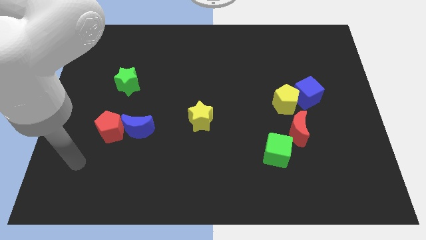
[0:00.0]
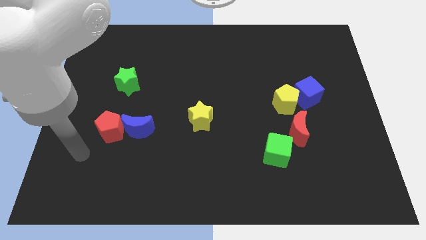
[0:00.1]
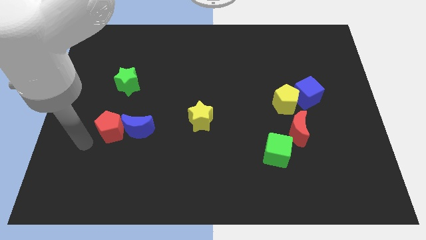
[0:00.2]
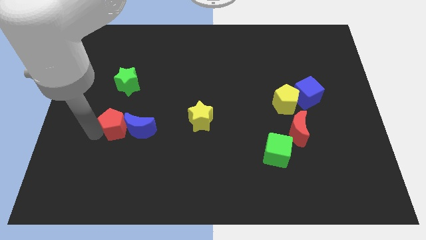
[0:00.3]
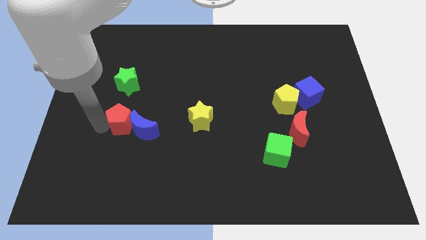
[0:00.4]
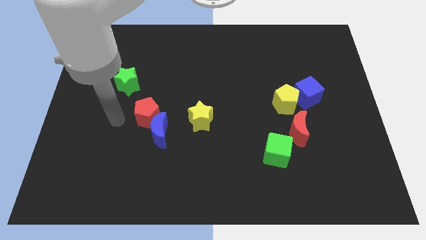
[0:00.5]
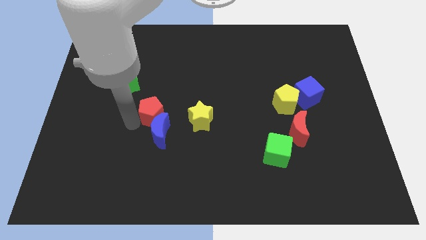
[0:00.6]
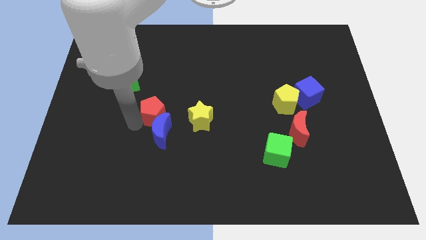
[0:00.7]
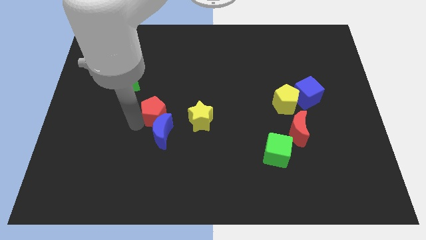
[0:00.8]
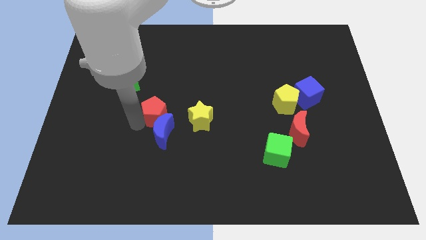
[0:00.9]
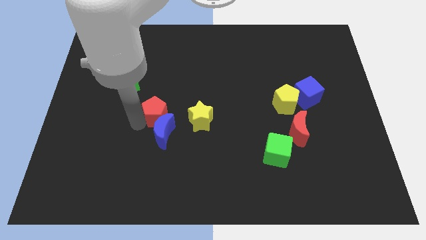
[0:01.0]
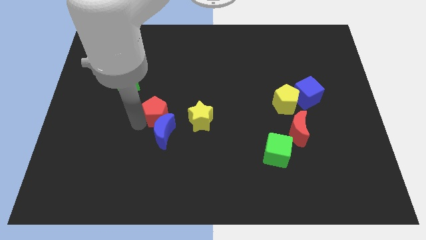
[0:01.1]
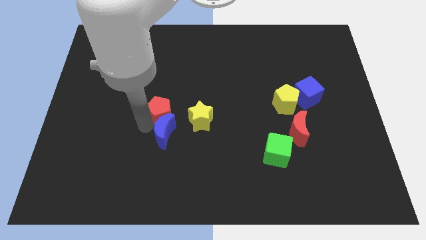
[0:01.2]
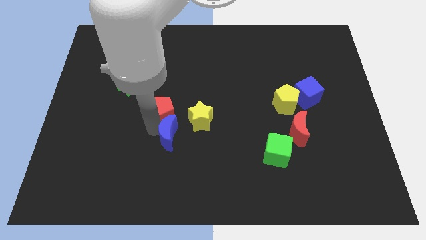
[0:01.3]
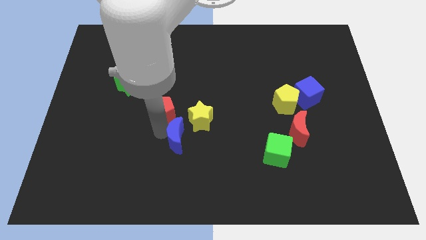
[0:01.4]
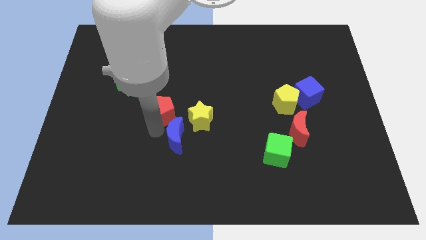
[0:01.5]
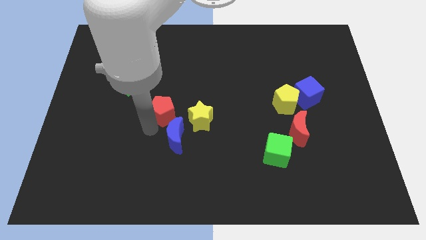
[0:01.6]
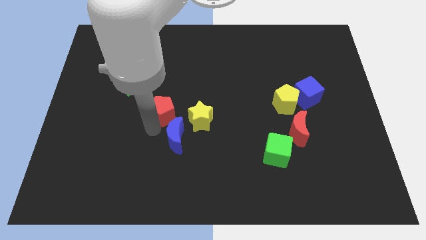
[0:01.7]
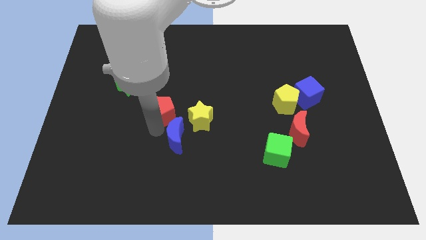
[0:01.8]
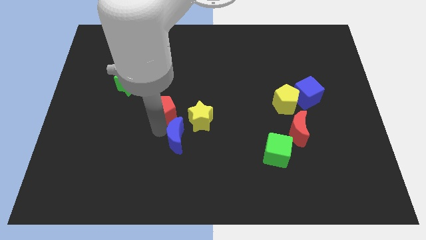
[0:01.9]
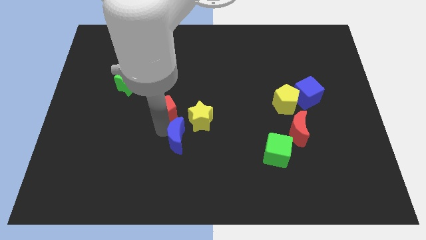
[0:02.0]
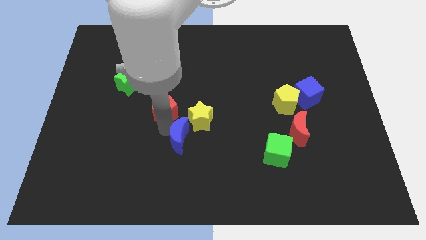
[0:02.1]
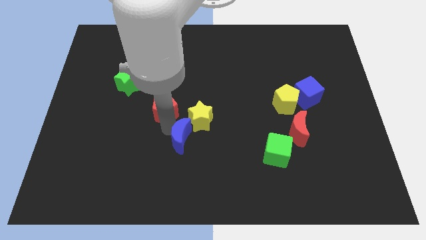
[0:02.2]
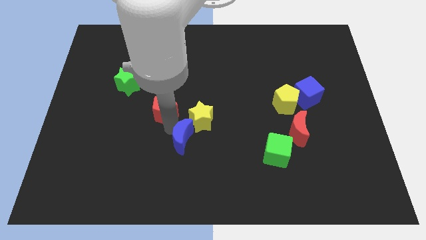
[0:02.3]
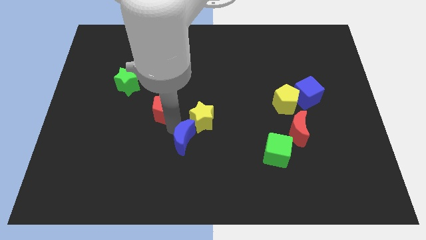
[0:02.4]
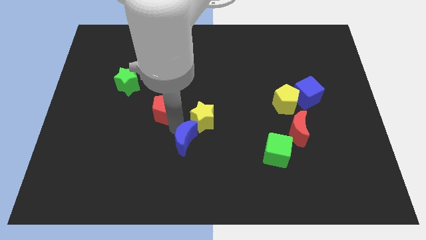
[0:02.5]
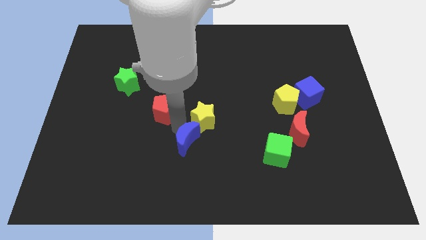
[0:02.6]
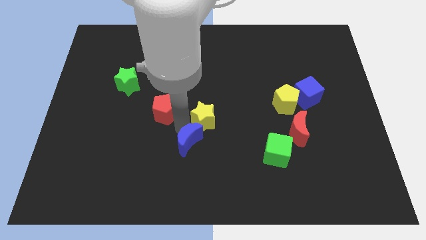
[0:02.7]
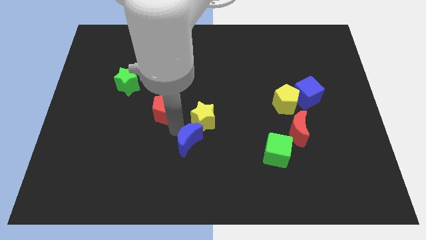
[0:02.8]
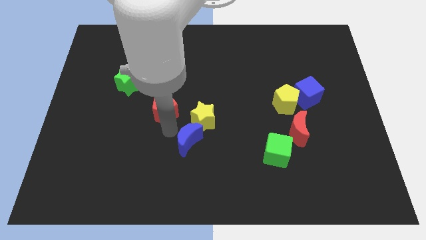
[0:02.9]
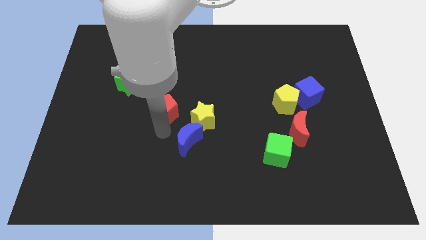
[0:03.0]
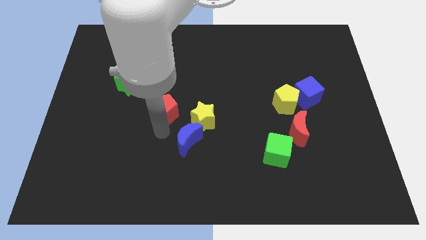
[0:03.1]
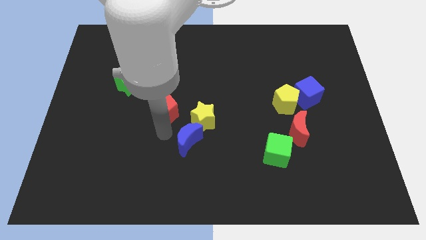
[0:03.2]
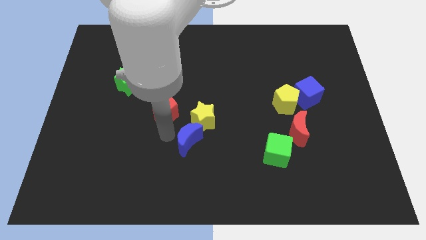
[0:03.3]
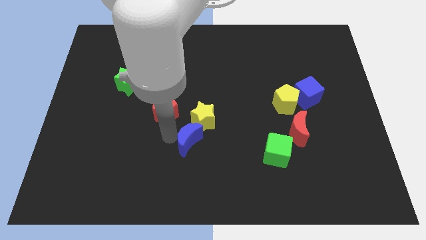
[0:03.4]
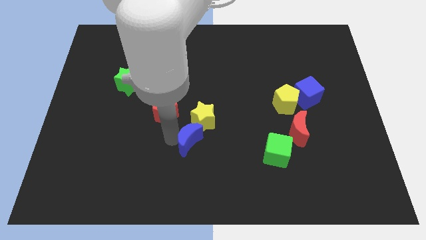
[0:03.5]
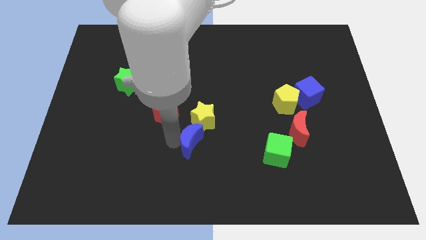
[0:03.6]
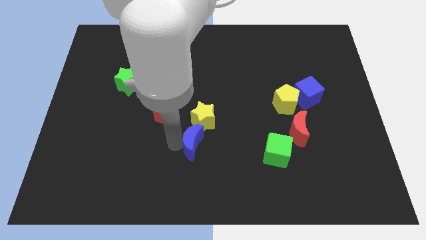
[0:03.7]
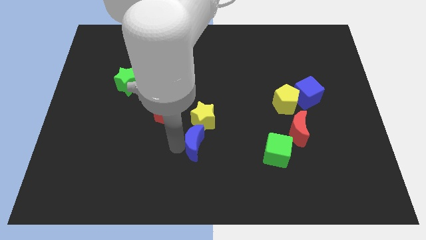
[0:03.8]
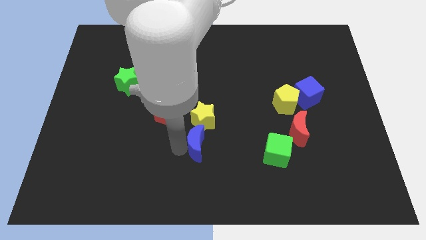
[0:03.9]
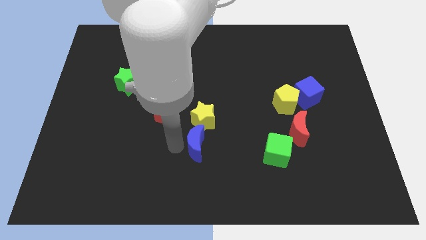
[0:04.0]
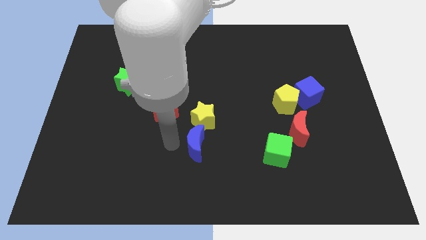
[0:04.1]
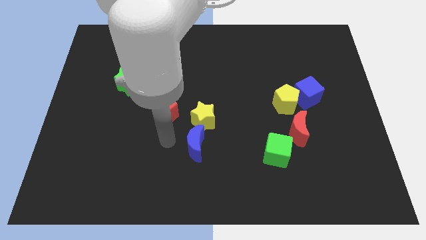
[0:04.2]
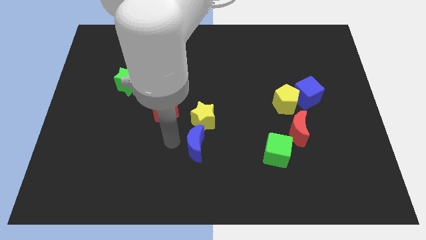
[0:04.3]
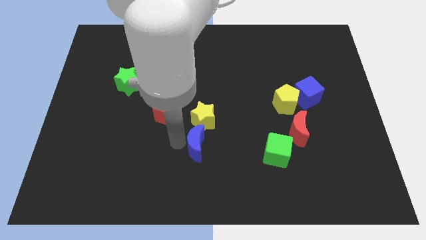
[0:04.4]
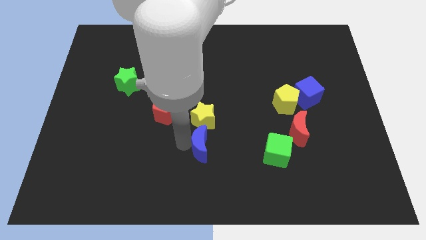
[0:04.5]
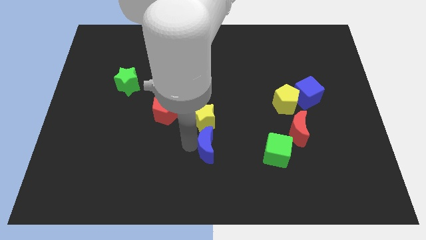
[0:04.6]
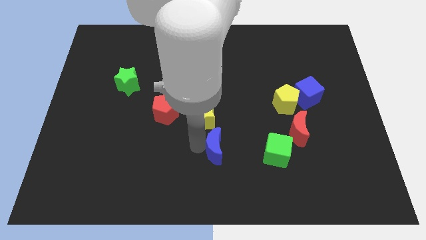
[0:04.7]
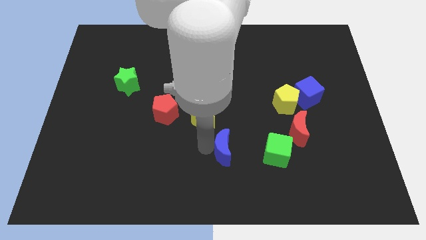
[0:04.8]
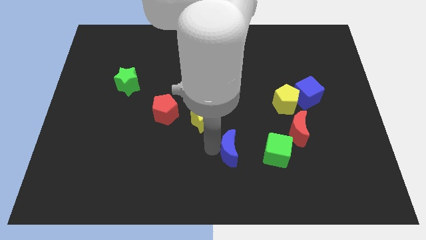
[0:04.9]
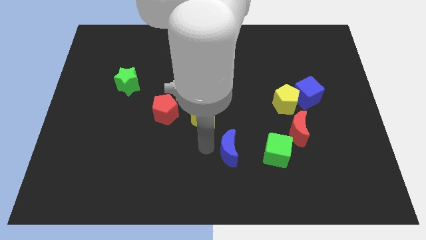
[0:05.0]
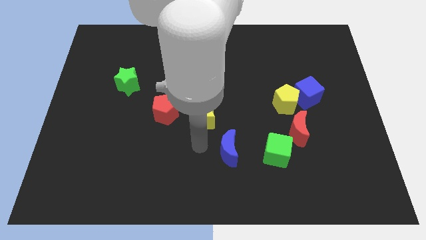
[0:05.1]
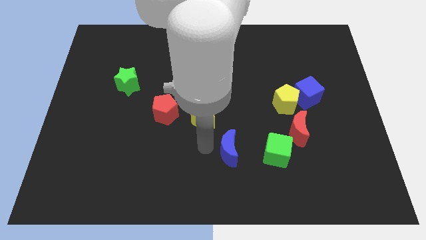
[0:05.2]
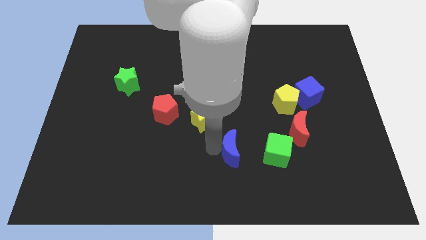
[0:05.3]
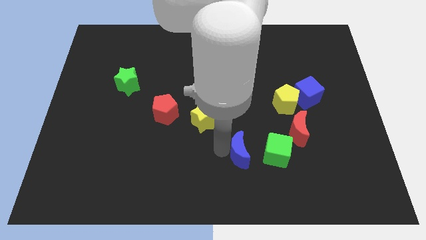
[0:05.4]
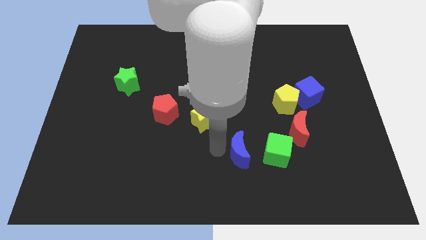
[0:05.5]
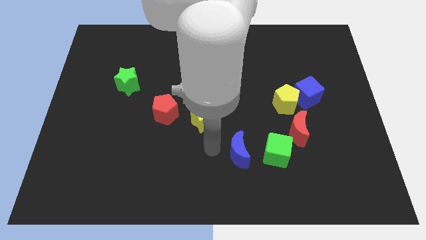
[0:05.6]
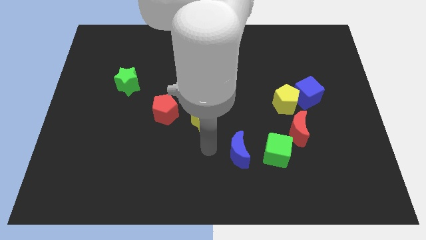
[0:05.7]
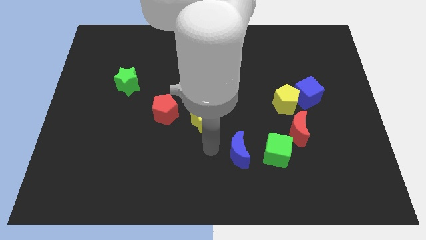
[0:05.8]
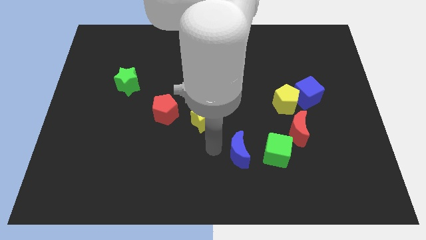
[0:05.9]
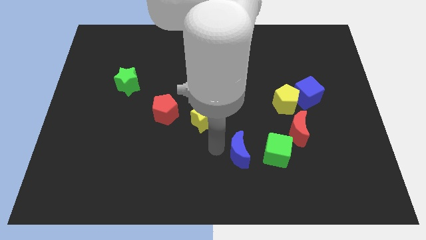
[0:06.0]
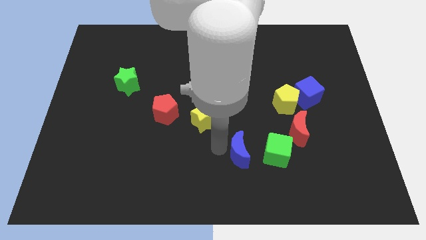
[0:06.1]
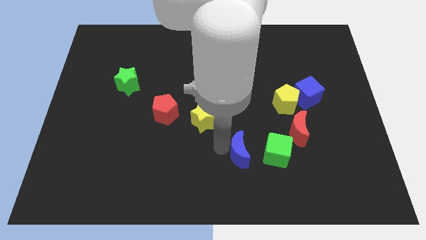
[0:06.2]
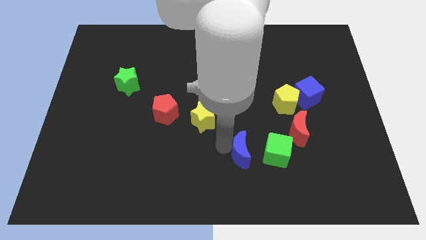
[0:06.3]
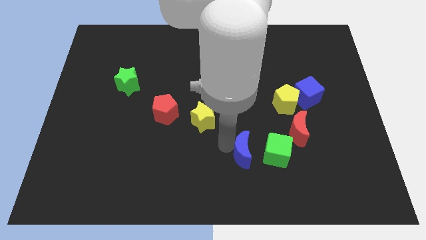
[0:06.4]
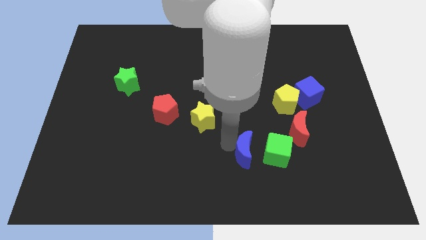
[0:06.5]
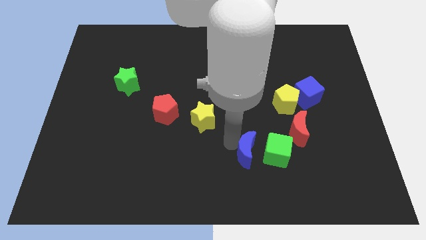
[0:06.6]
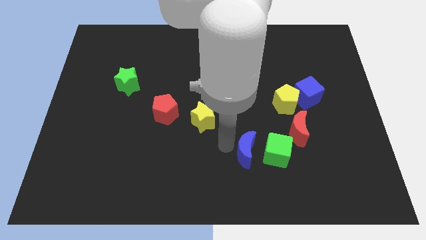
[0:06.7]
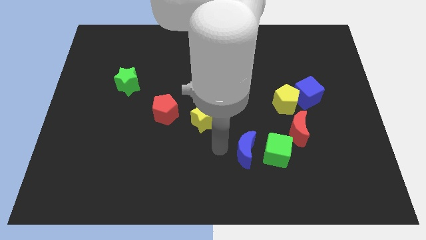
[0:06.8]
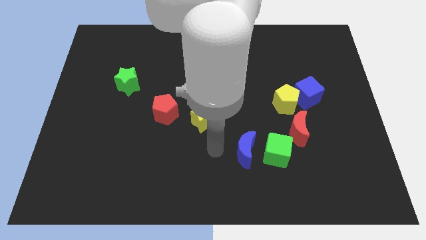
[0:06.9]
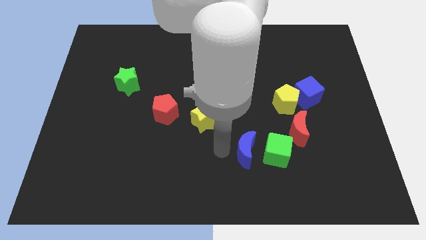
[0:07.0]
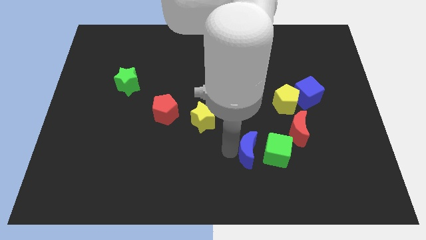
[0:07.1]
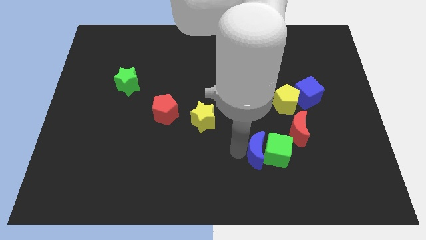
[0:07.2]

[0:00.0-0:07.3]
put the blue moon to the green cube
